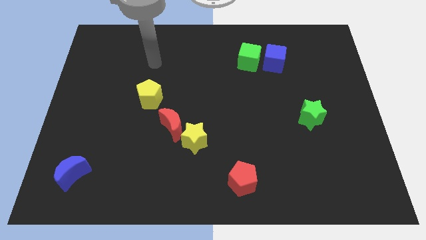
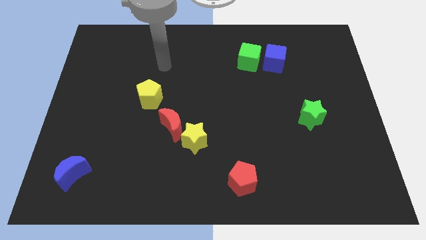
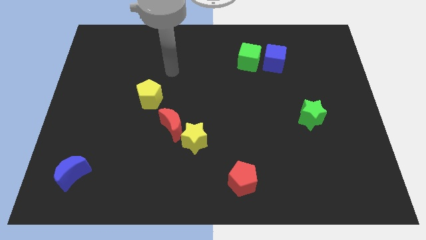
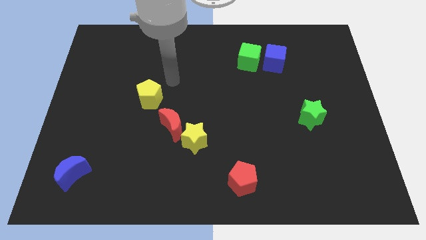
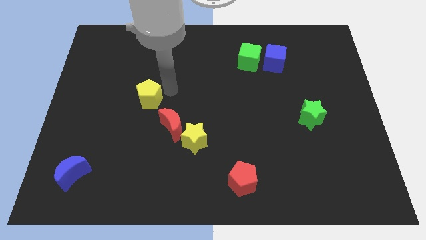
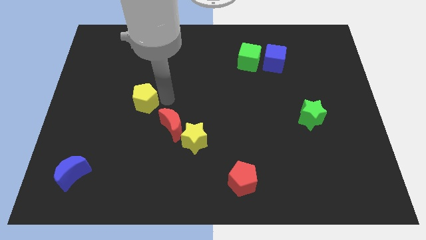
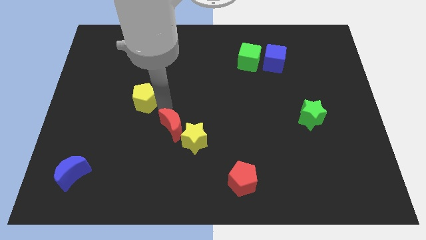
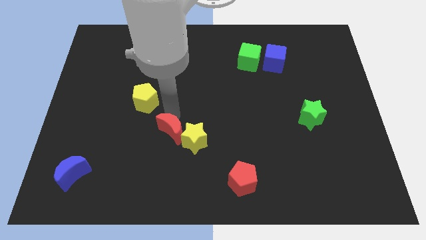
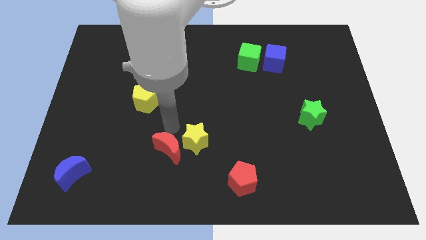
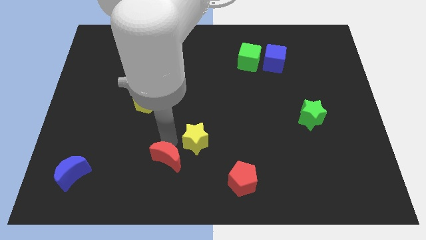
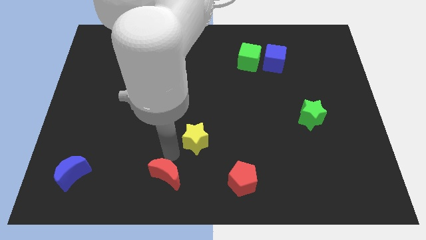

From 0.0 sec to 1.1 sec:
move the yellow star away from the red moon

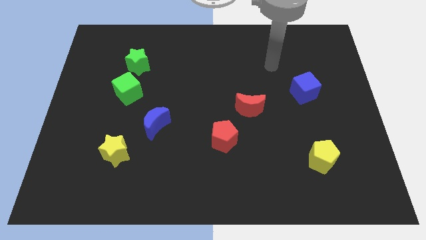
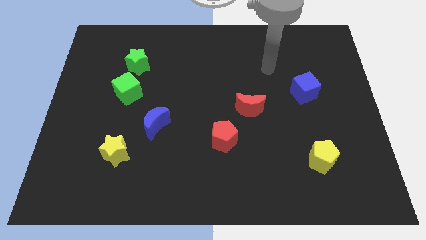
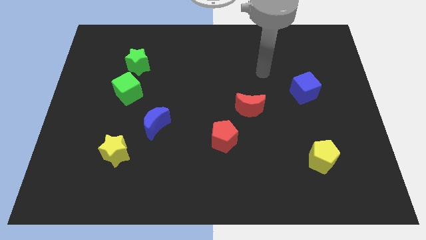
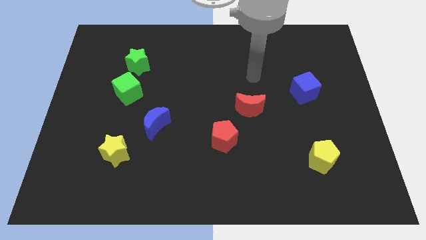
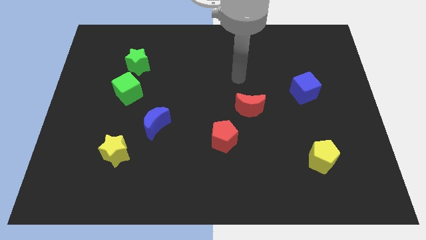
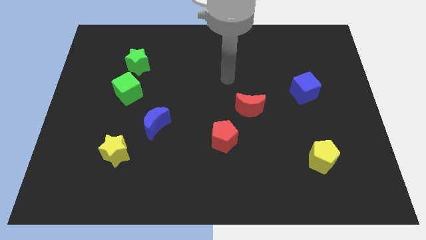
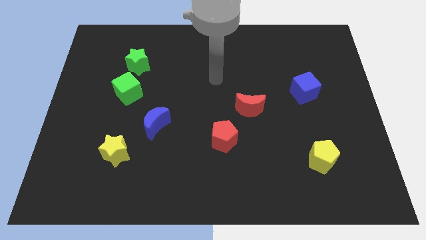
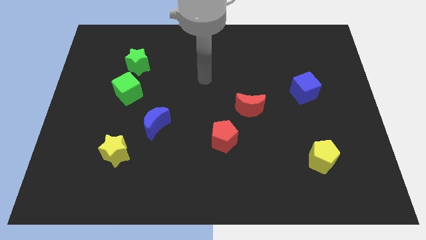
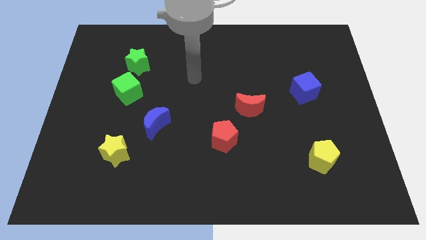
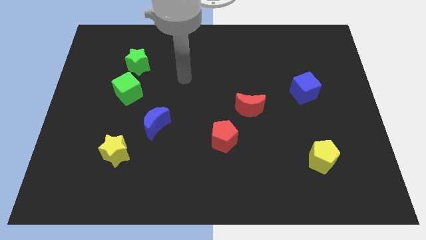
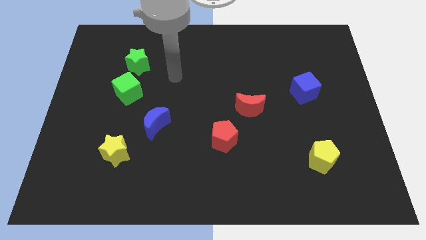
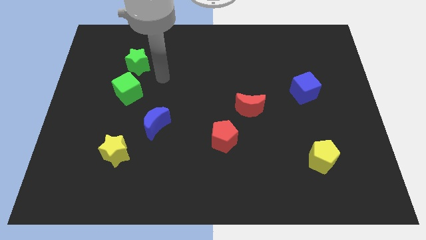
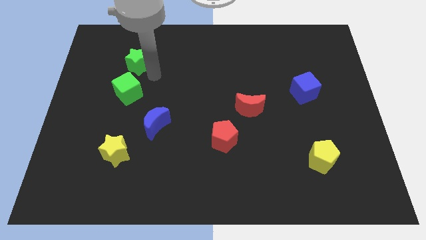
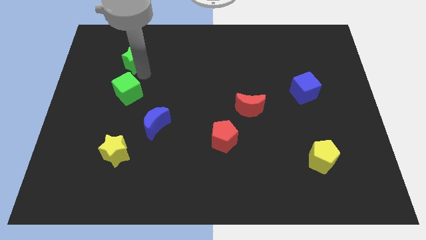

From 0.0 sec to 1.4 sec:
pull the green cube apart from the green star

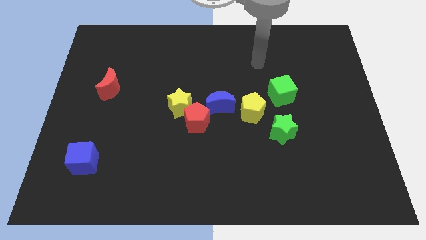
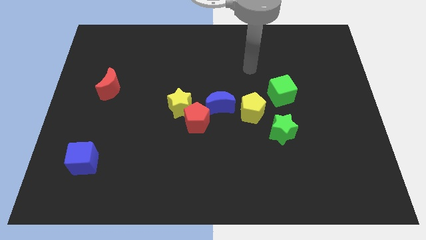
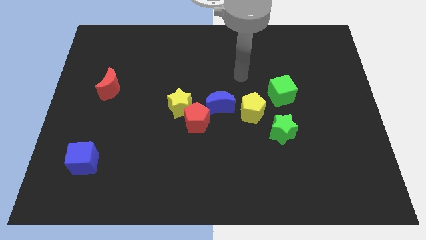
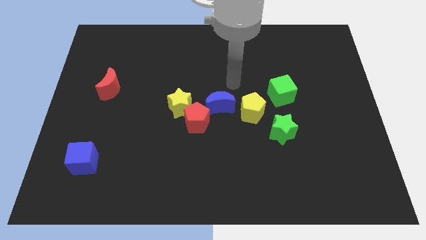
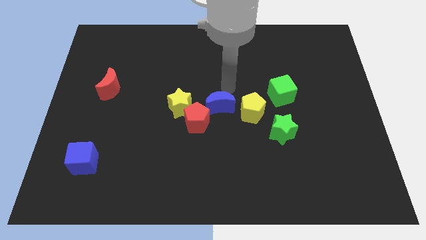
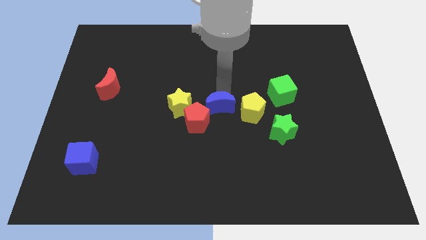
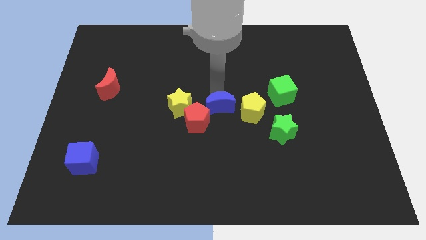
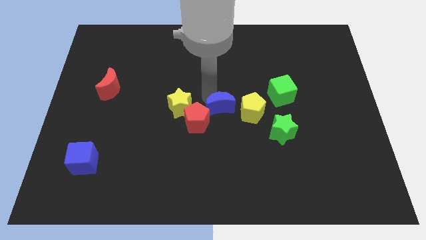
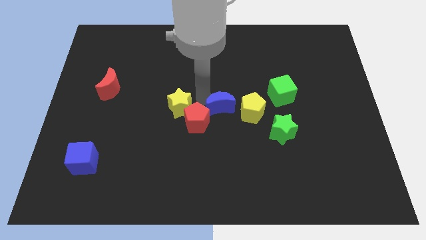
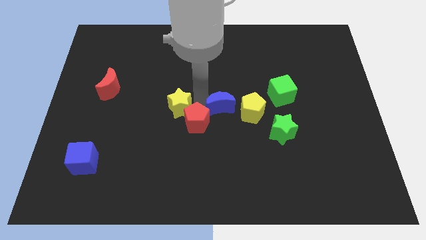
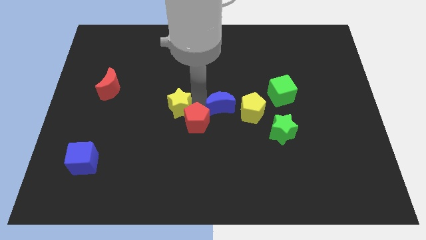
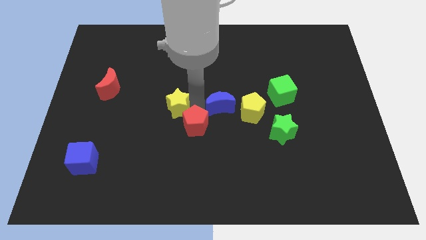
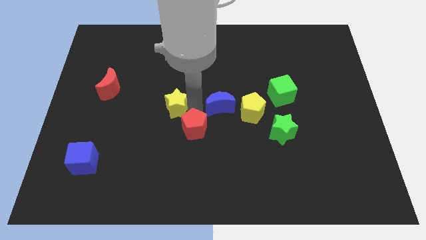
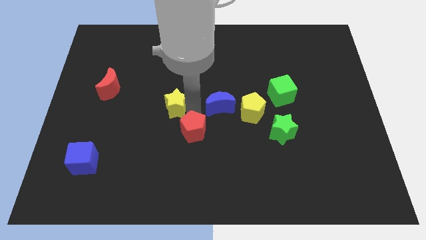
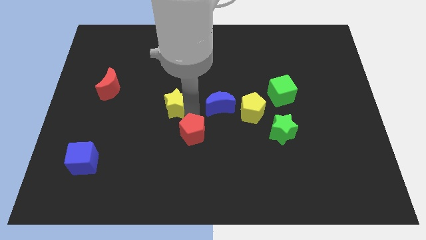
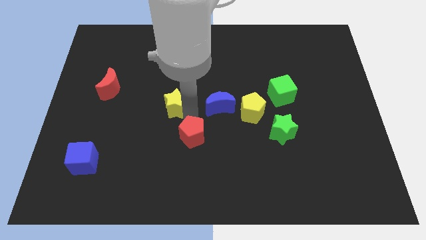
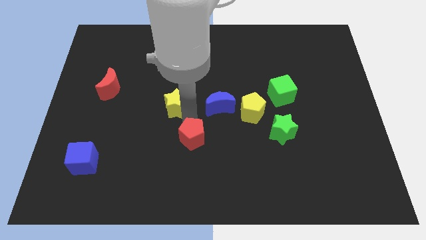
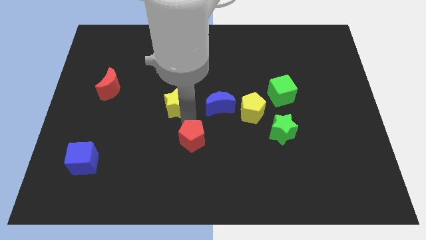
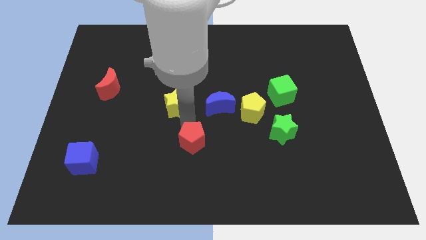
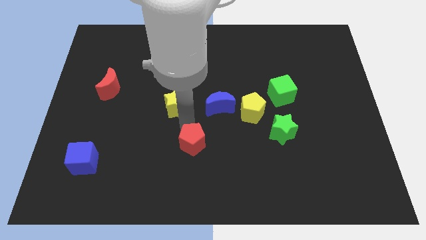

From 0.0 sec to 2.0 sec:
separate the red pentagon from the yellow star and blue moon

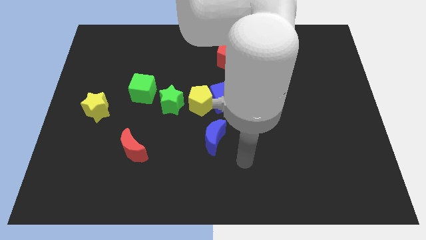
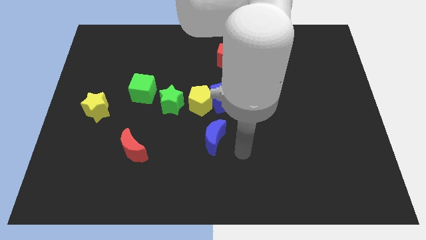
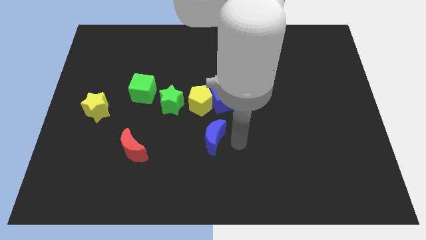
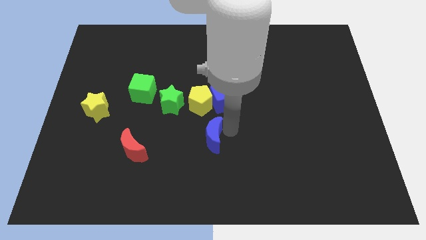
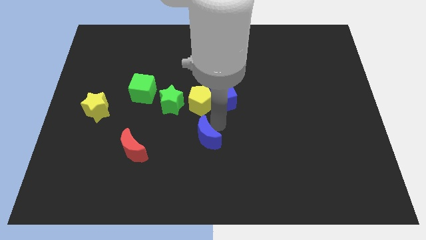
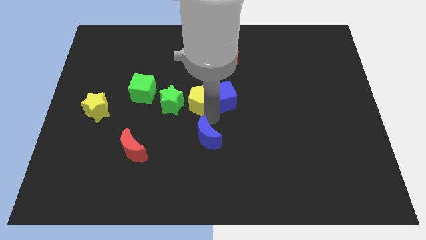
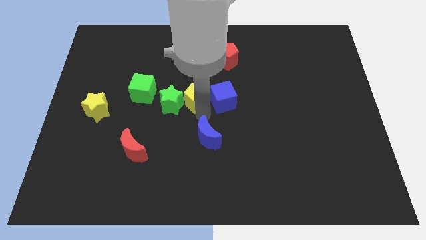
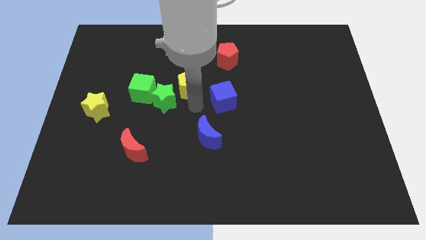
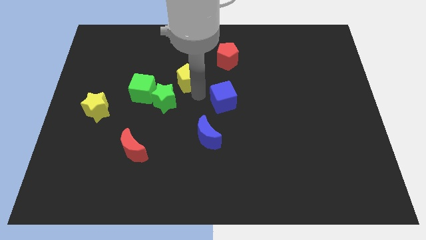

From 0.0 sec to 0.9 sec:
pull the blue cube apart from the yellow pentagon

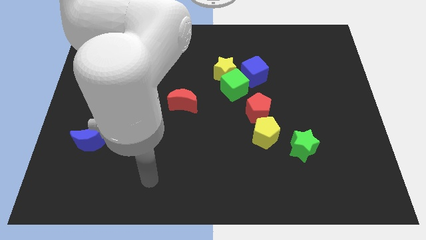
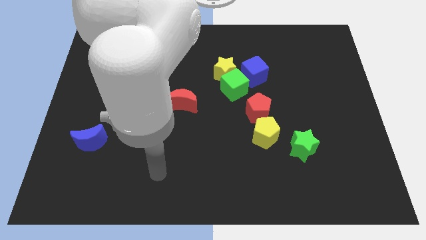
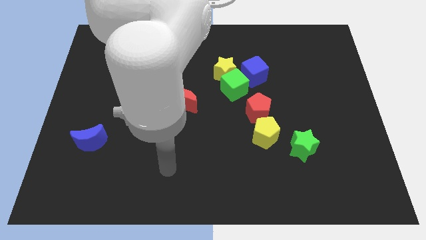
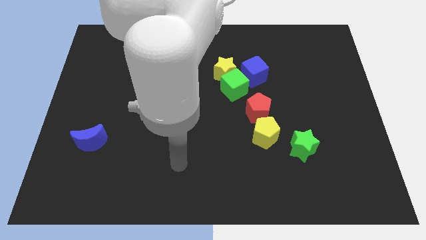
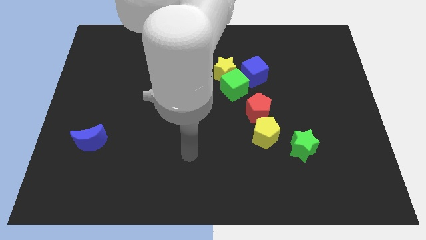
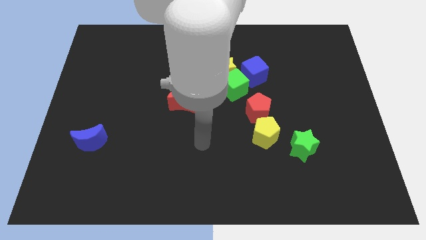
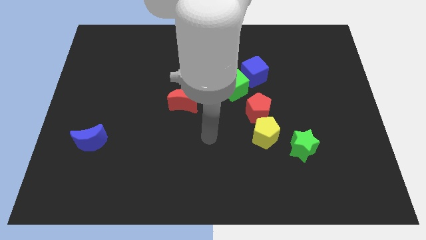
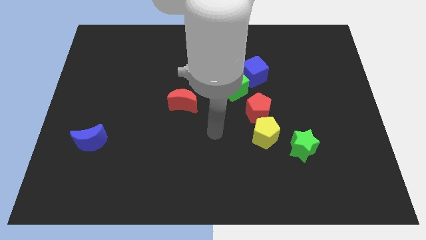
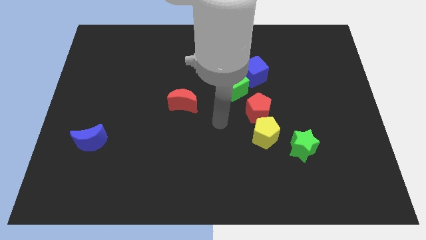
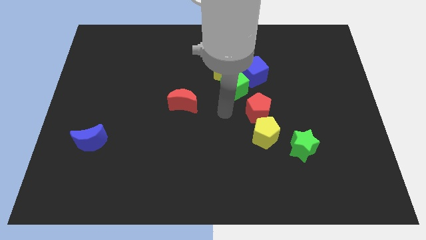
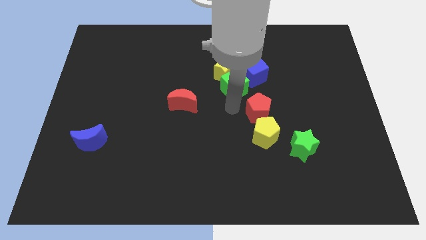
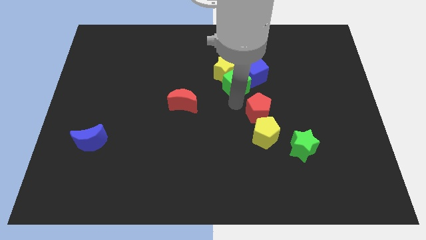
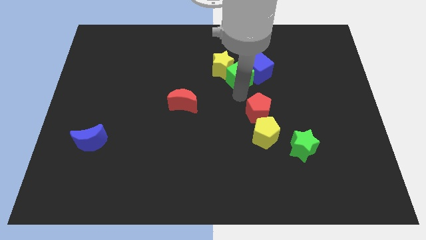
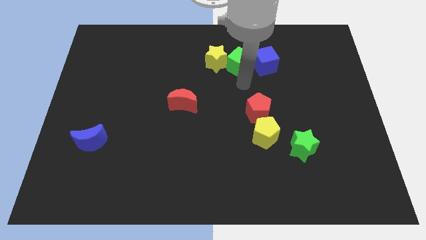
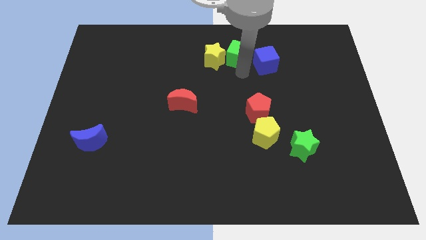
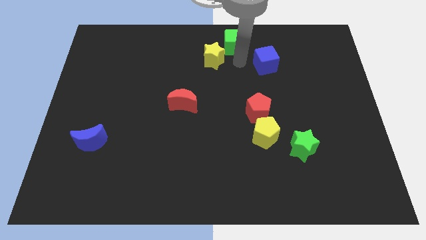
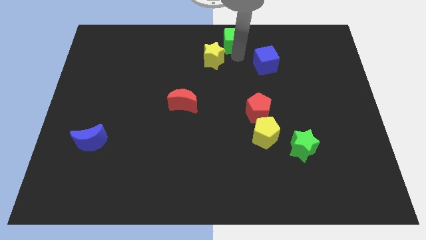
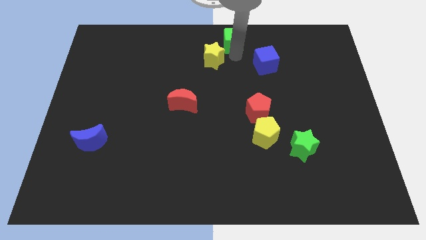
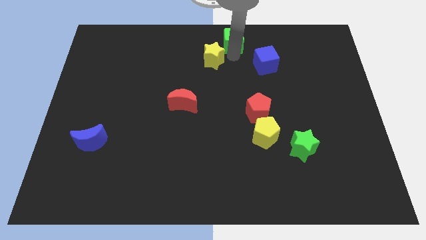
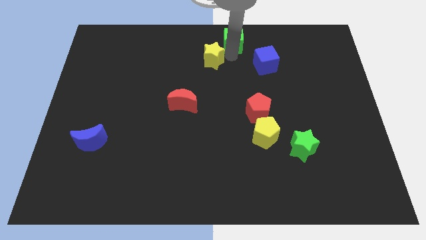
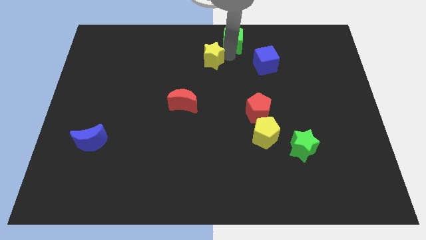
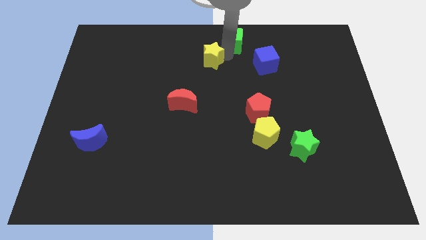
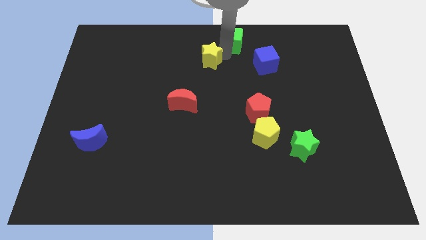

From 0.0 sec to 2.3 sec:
move the yellow star away from the green cube and blue cube

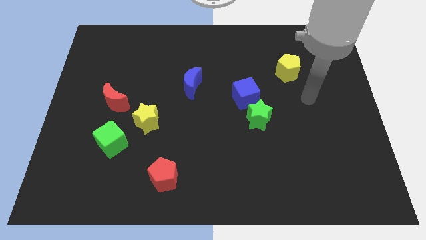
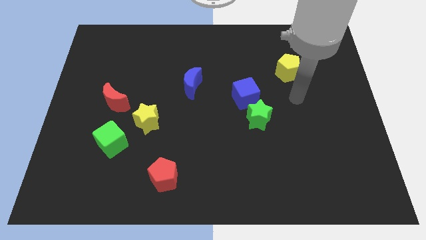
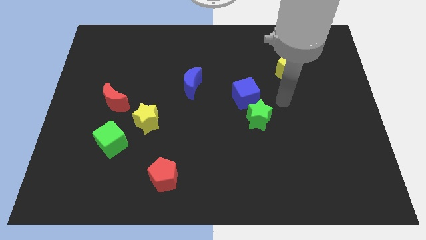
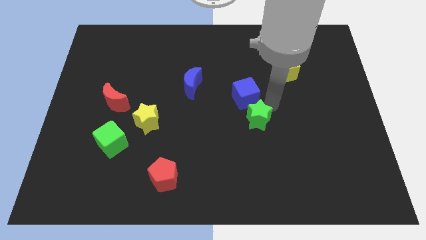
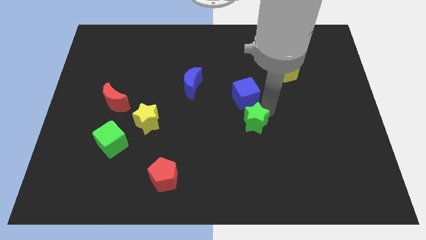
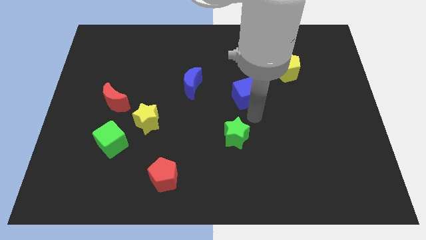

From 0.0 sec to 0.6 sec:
separate the blue cube from the green star

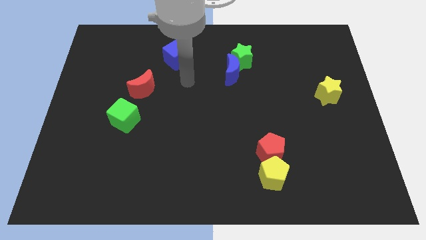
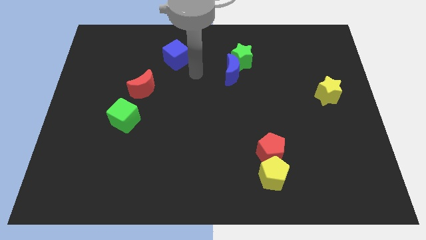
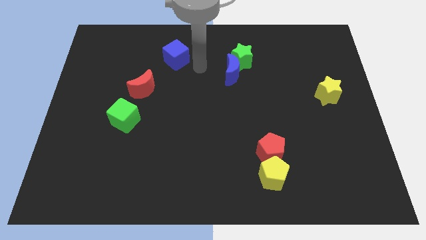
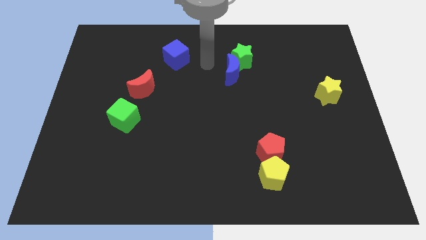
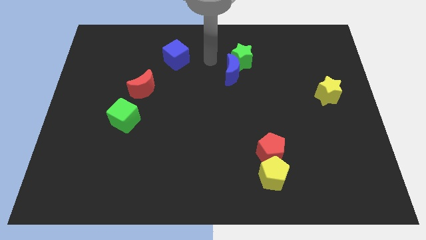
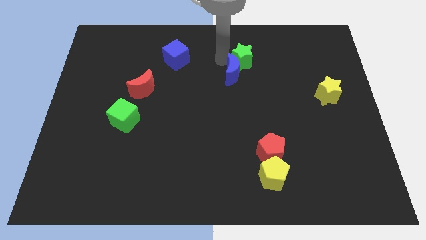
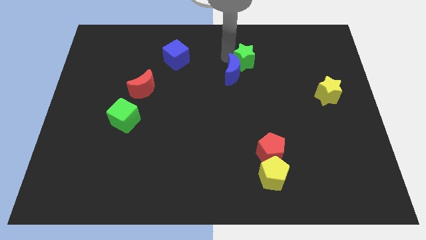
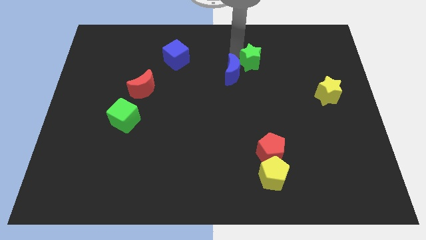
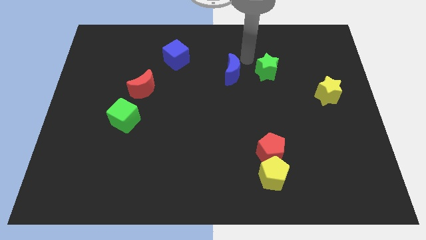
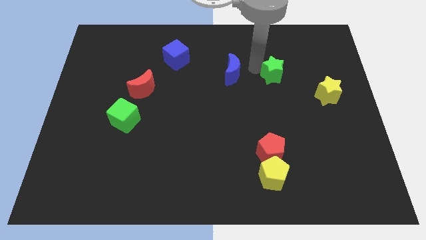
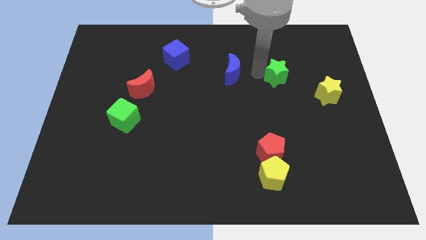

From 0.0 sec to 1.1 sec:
separate the blue moon from the green star
